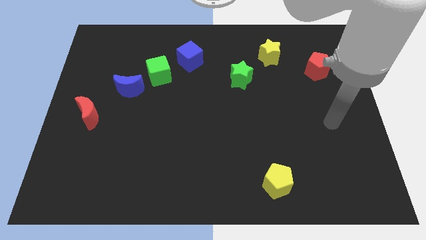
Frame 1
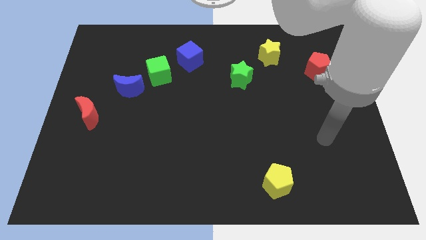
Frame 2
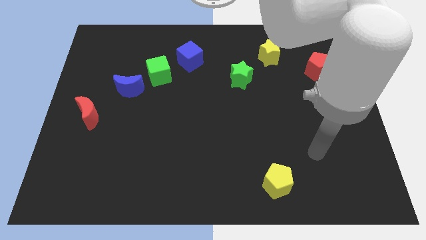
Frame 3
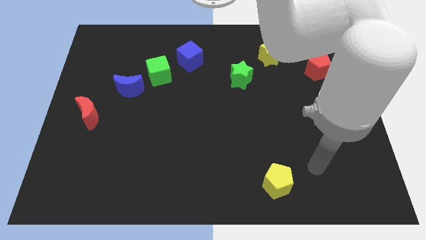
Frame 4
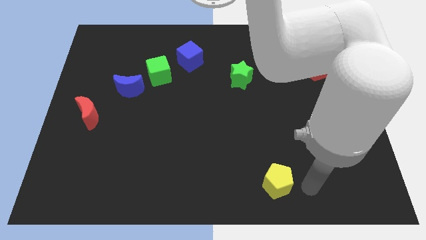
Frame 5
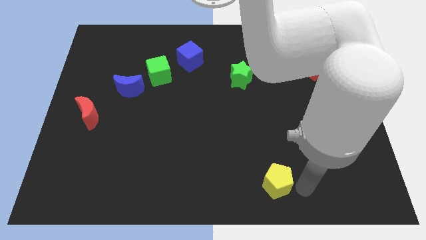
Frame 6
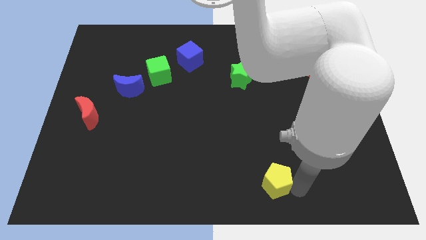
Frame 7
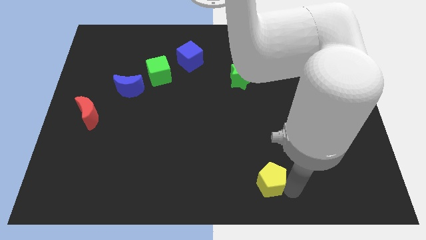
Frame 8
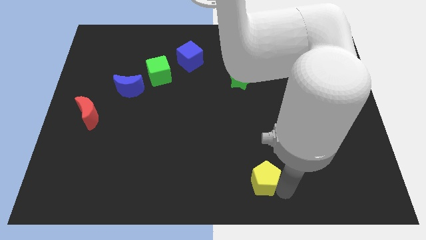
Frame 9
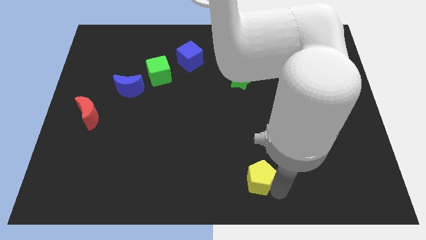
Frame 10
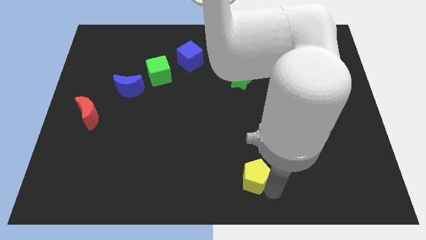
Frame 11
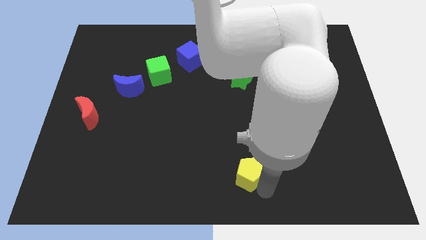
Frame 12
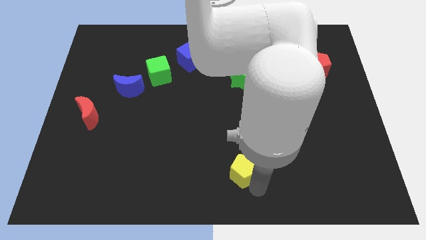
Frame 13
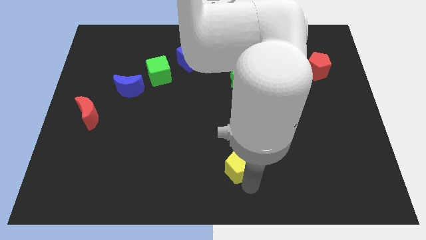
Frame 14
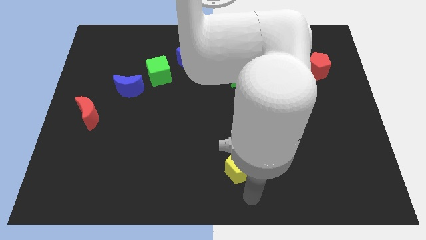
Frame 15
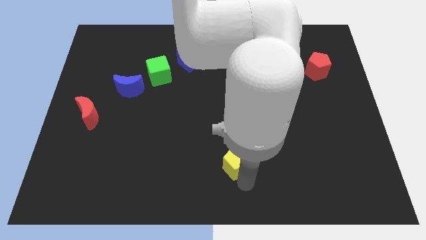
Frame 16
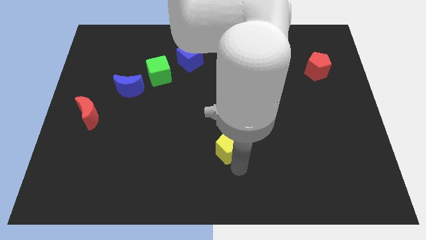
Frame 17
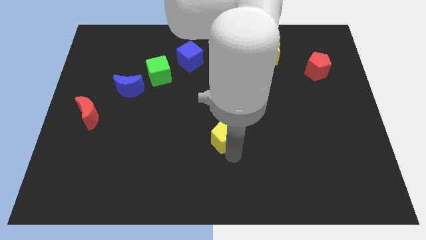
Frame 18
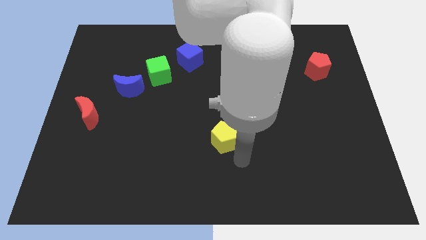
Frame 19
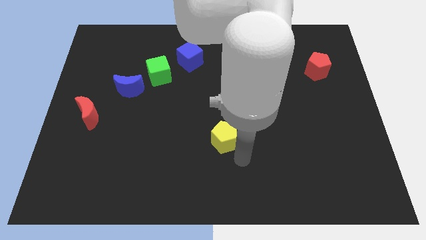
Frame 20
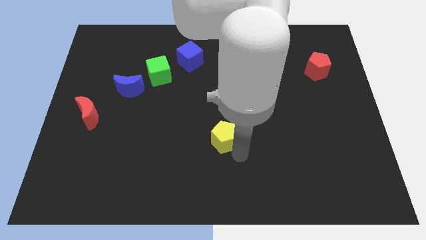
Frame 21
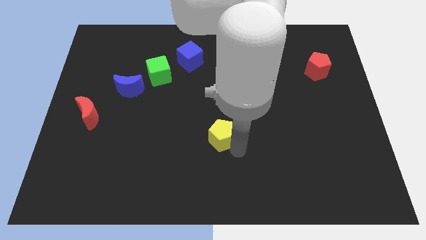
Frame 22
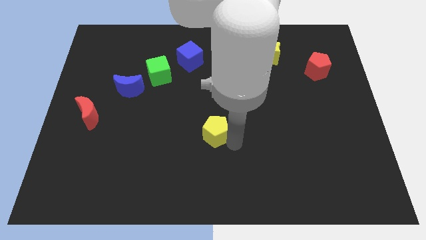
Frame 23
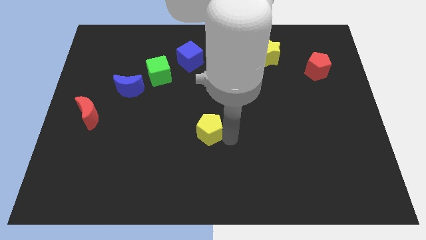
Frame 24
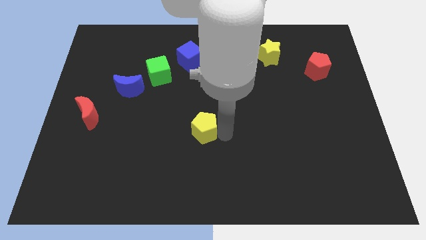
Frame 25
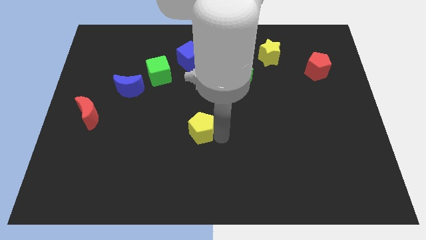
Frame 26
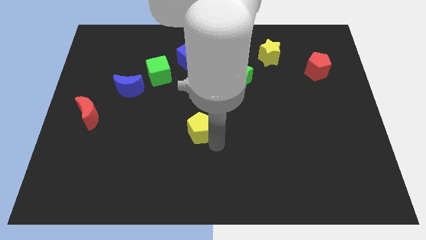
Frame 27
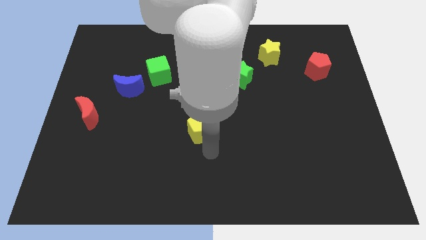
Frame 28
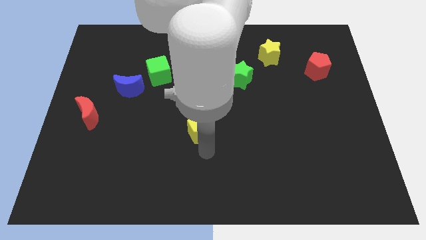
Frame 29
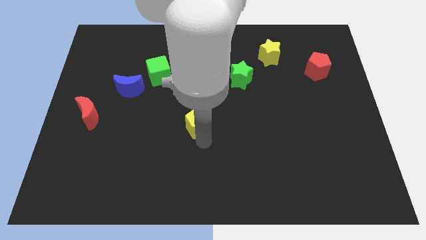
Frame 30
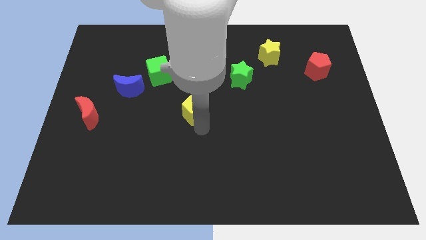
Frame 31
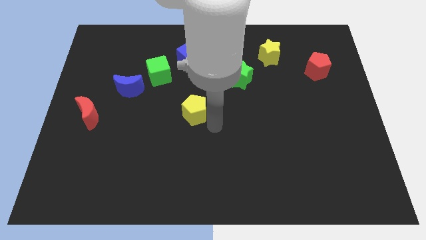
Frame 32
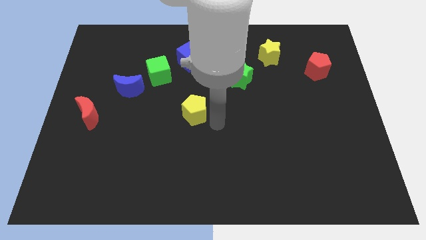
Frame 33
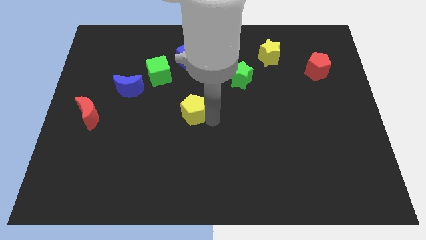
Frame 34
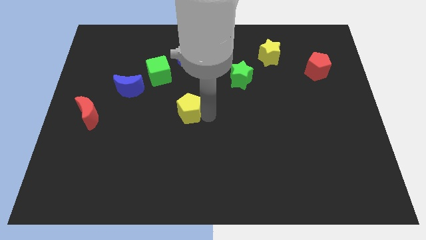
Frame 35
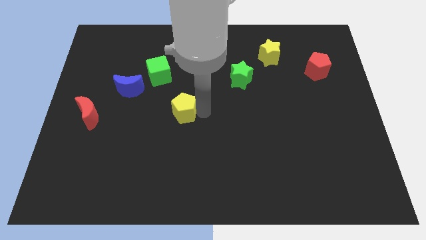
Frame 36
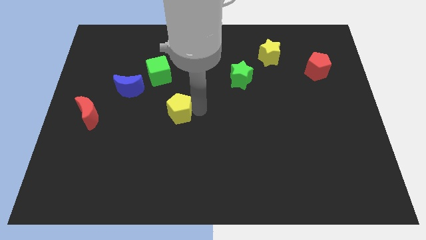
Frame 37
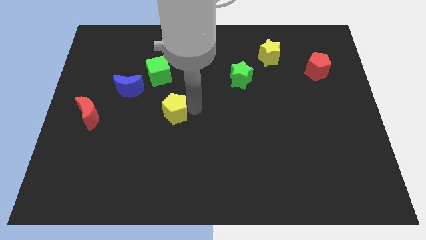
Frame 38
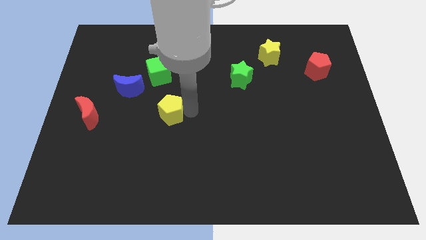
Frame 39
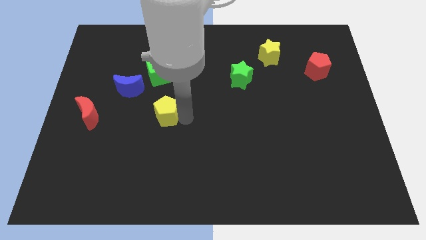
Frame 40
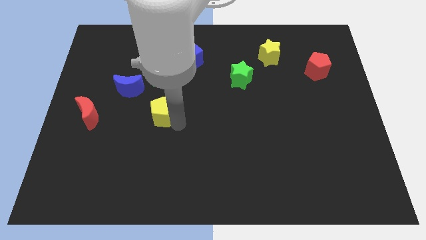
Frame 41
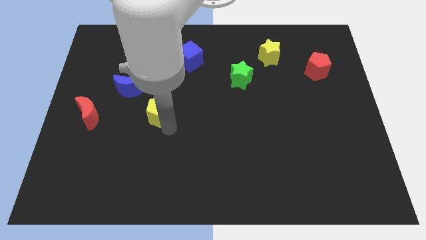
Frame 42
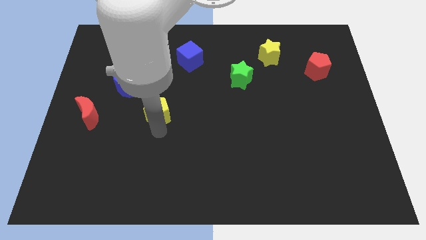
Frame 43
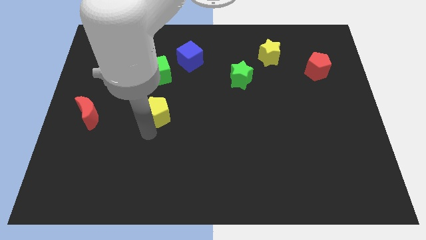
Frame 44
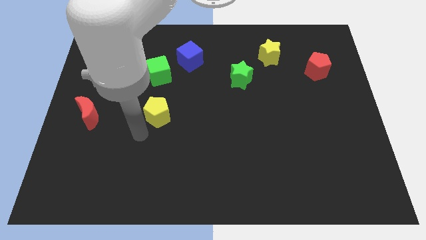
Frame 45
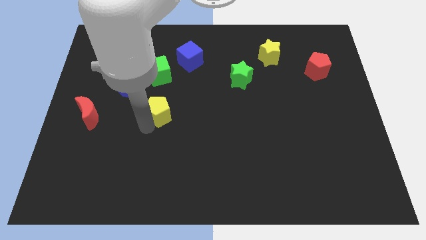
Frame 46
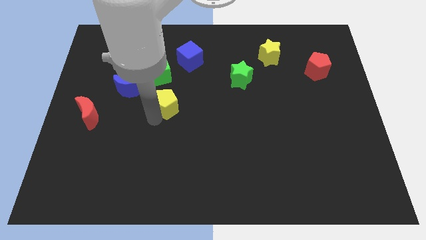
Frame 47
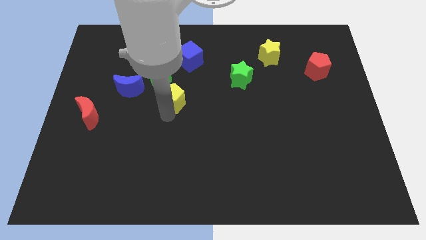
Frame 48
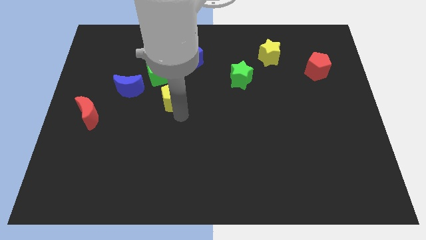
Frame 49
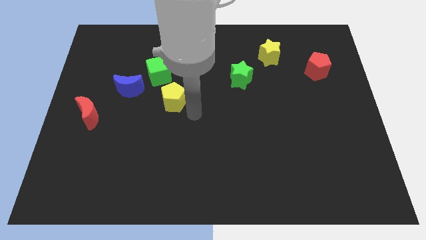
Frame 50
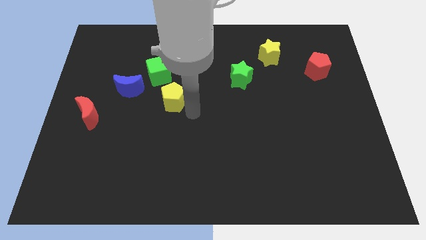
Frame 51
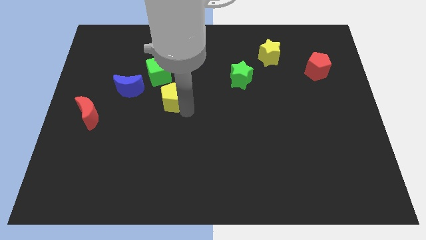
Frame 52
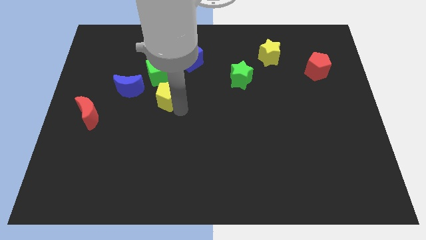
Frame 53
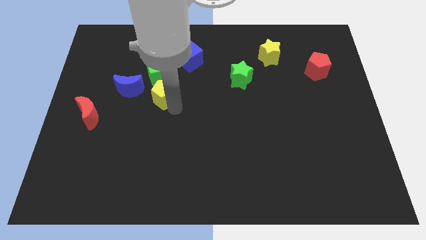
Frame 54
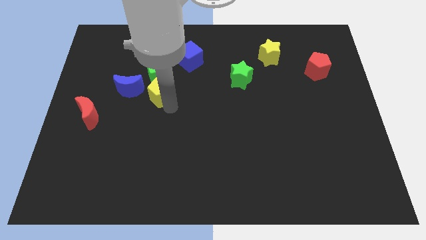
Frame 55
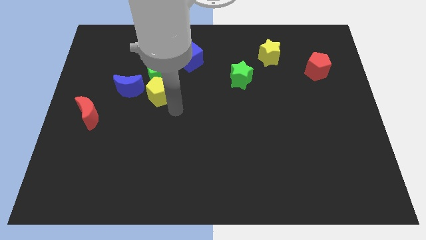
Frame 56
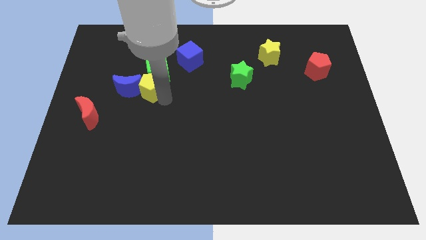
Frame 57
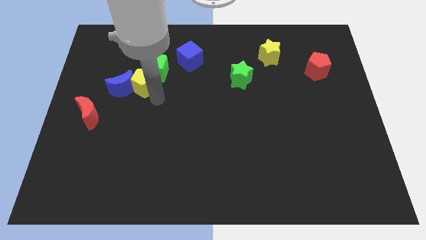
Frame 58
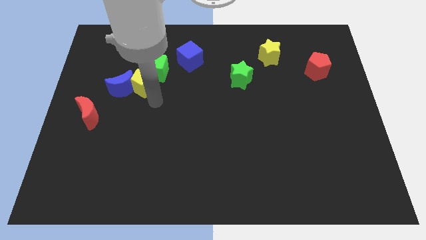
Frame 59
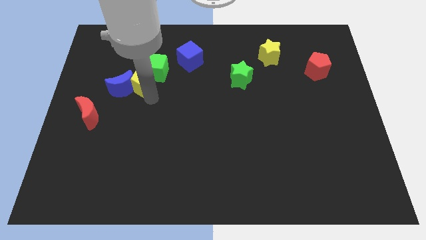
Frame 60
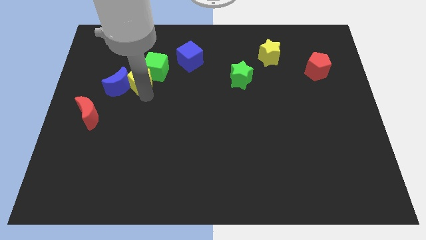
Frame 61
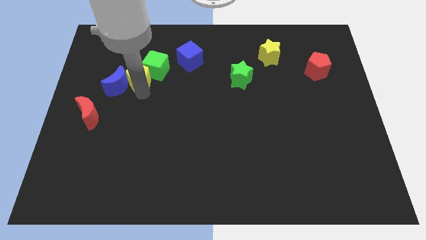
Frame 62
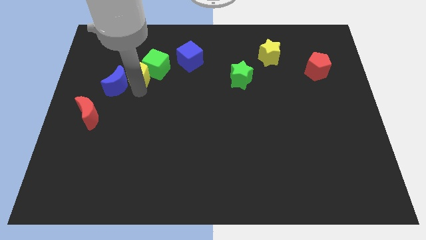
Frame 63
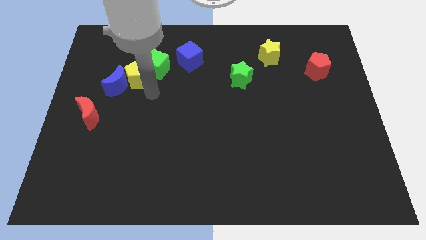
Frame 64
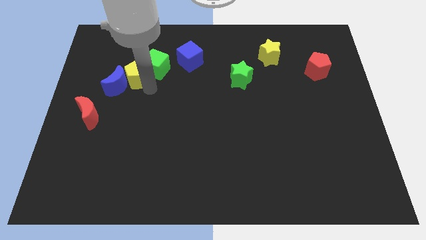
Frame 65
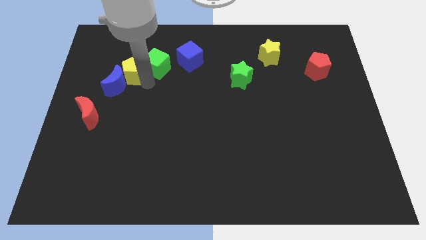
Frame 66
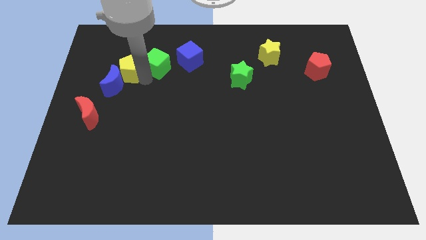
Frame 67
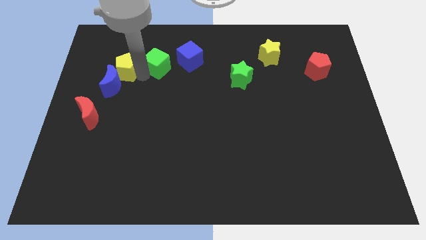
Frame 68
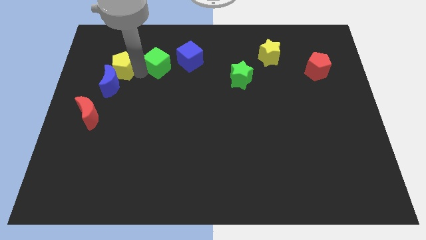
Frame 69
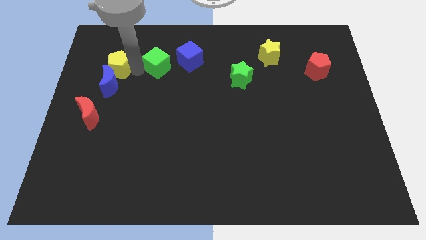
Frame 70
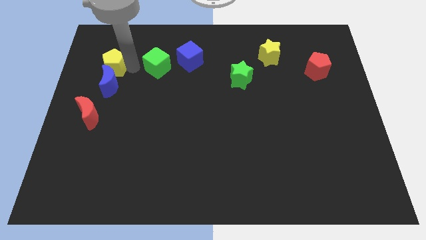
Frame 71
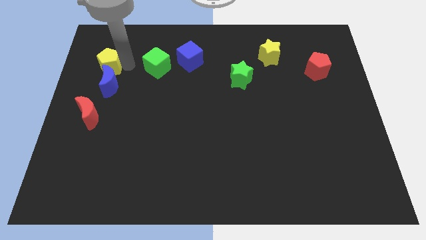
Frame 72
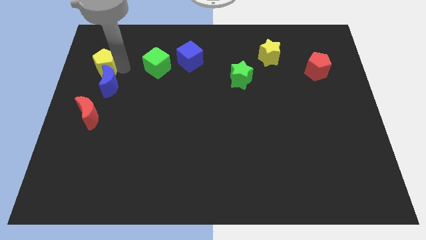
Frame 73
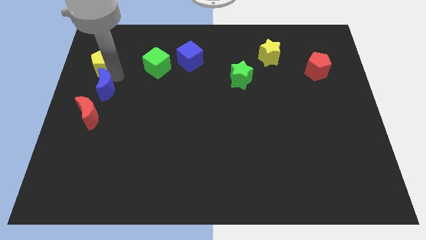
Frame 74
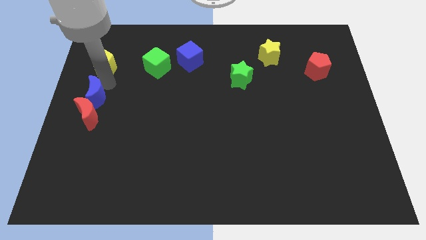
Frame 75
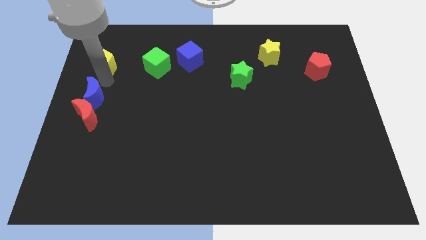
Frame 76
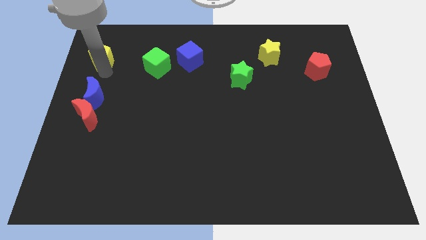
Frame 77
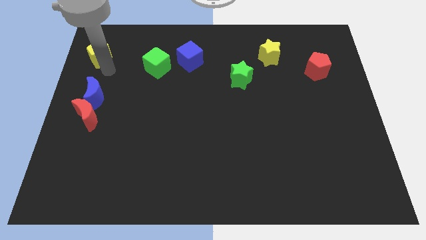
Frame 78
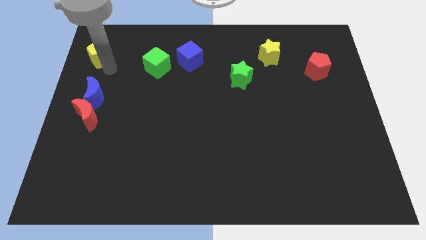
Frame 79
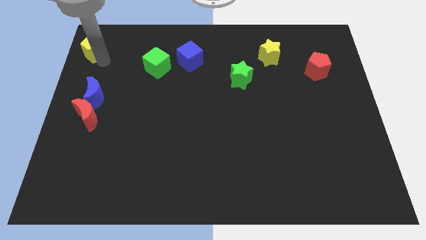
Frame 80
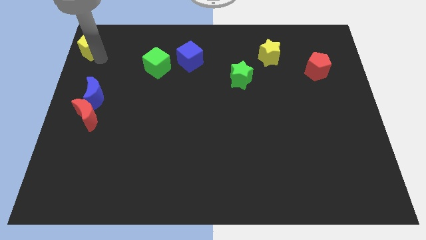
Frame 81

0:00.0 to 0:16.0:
slide the yellow pentagon to the upper left corner

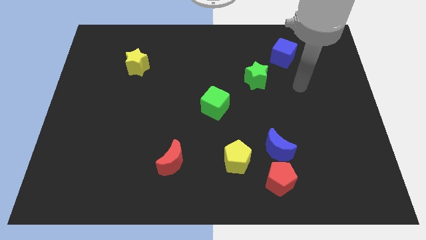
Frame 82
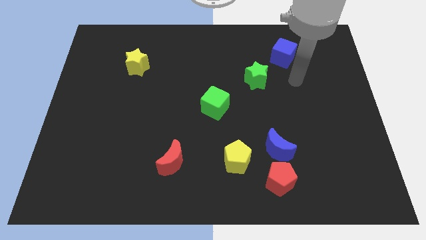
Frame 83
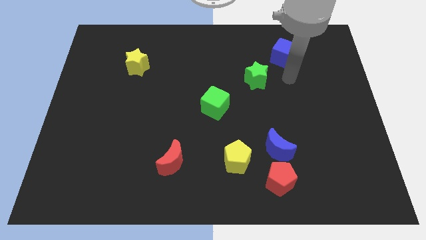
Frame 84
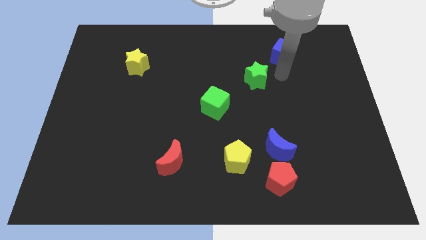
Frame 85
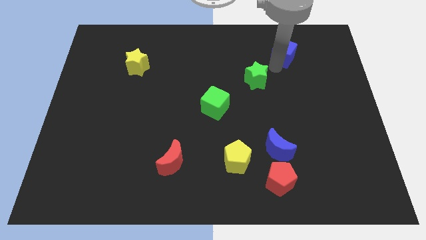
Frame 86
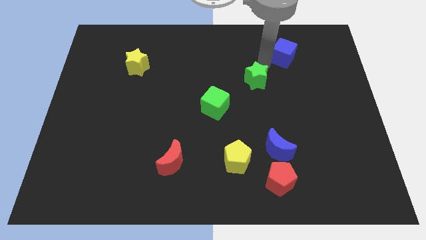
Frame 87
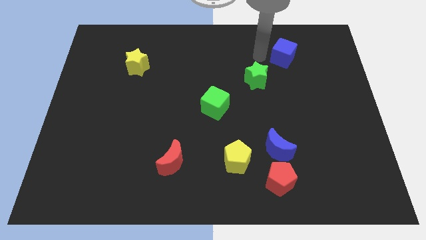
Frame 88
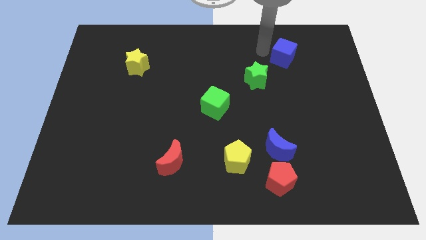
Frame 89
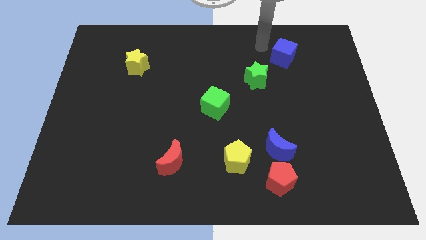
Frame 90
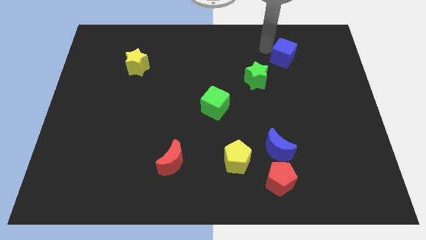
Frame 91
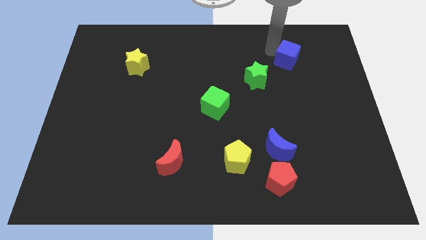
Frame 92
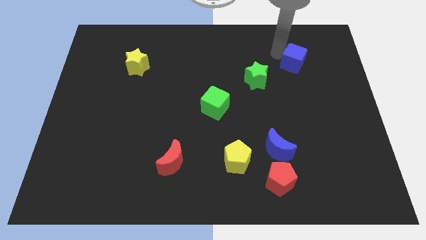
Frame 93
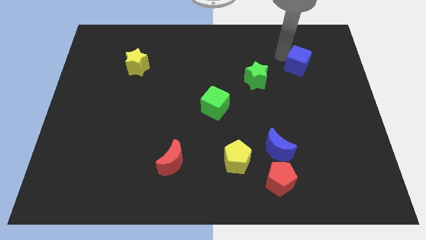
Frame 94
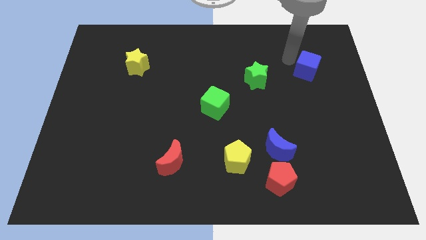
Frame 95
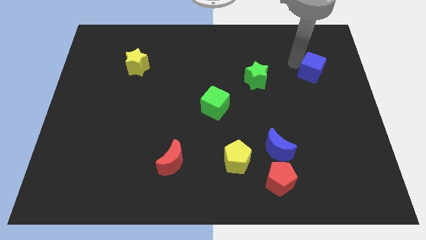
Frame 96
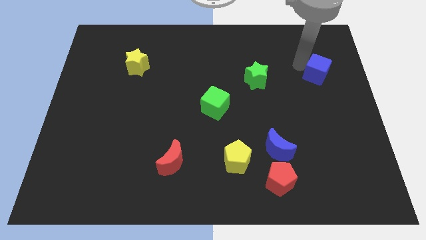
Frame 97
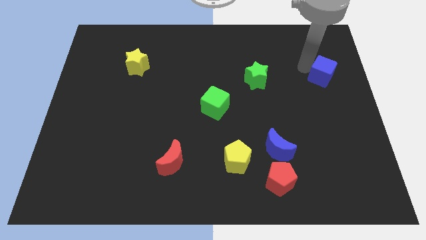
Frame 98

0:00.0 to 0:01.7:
slide the blue cube to the right side of the board
